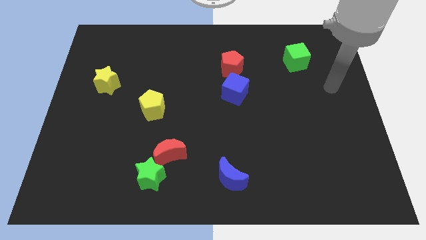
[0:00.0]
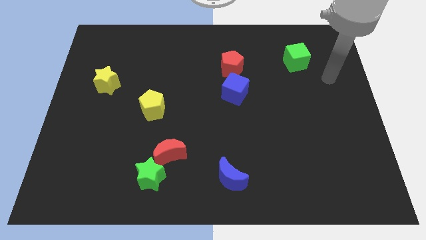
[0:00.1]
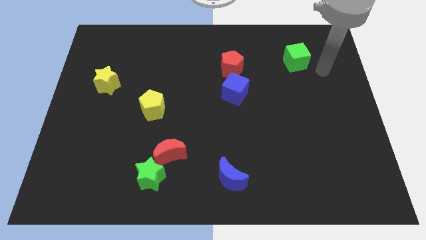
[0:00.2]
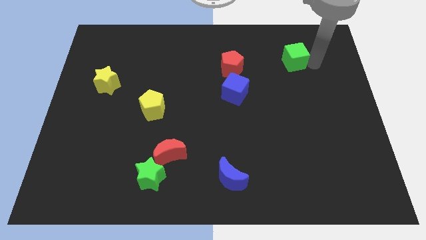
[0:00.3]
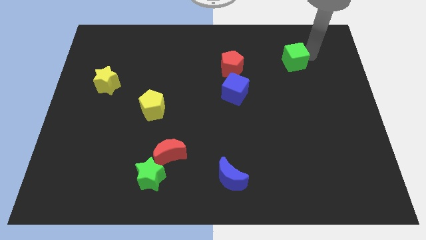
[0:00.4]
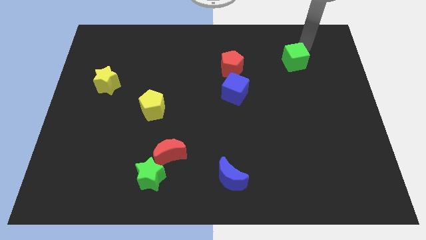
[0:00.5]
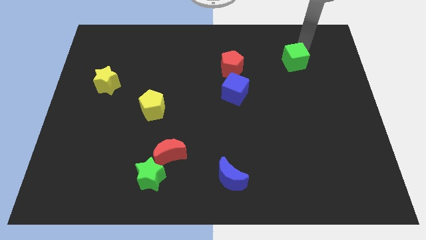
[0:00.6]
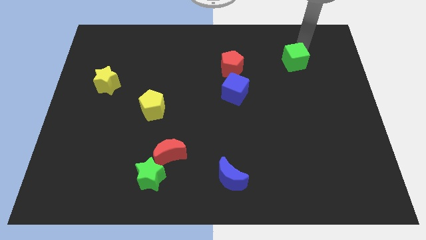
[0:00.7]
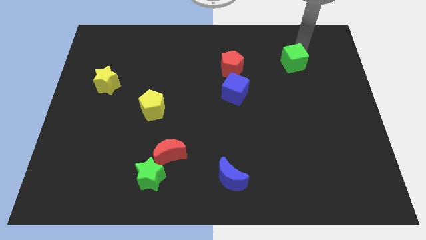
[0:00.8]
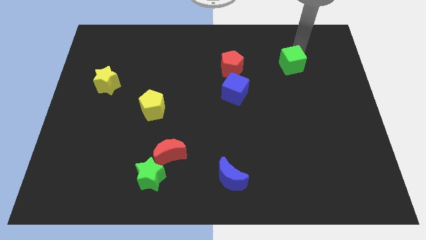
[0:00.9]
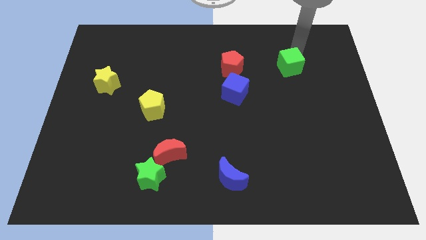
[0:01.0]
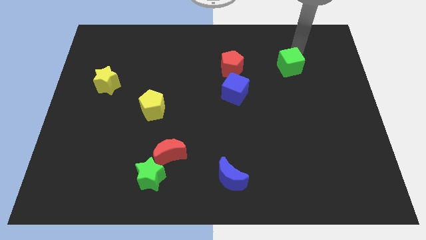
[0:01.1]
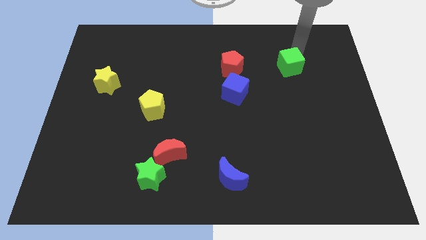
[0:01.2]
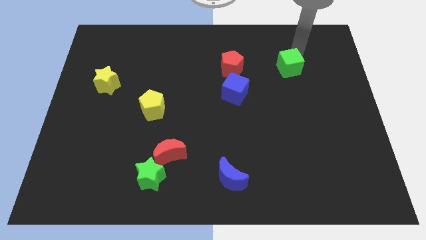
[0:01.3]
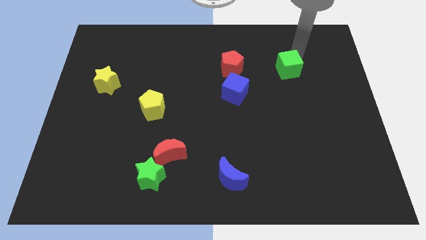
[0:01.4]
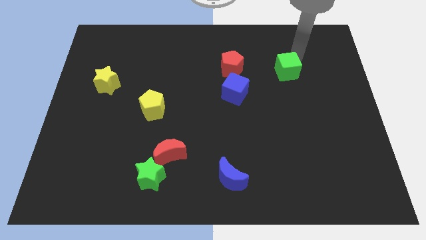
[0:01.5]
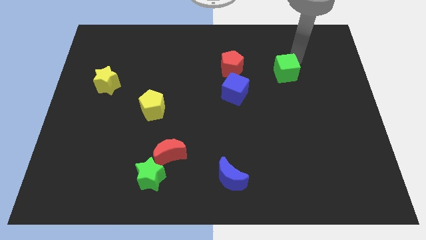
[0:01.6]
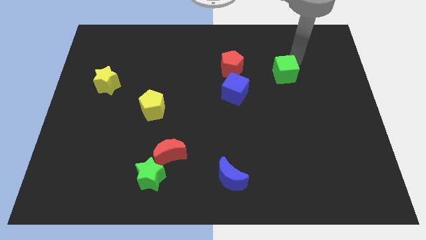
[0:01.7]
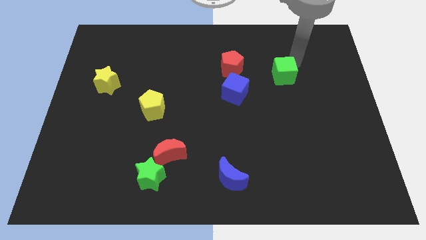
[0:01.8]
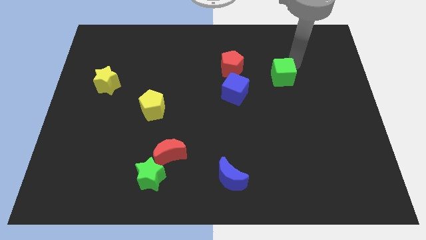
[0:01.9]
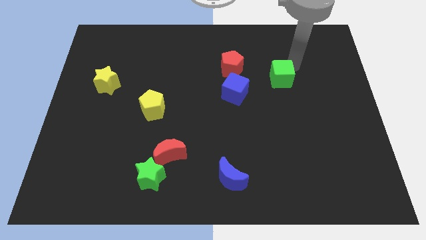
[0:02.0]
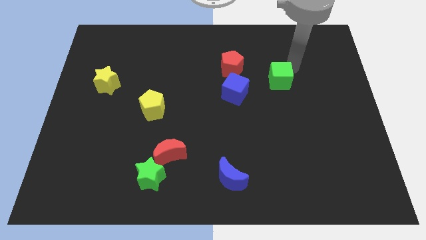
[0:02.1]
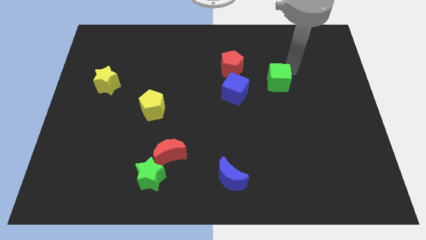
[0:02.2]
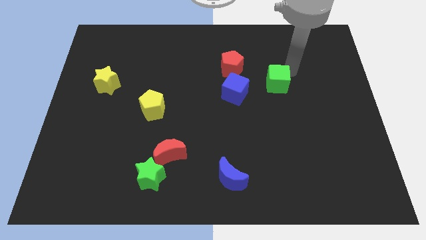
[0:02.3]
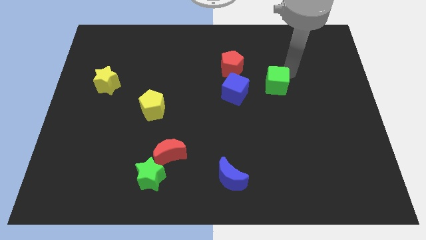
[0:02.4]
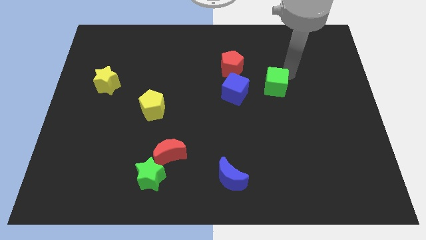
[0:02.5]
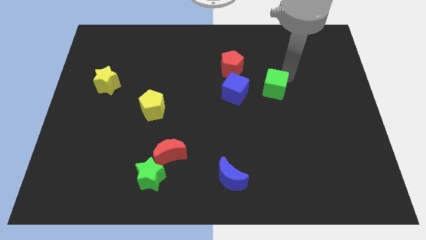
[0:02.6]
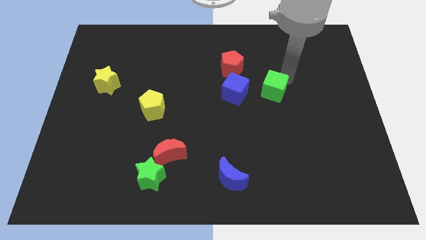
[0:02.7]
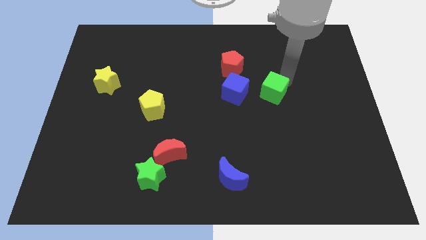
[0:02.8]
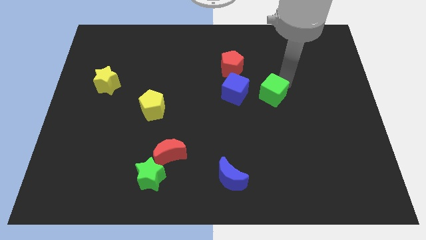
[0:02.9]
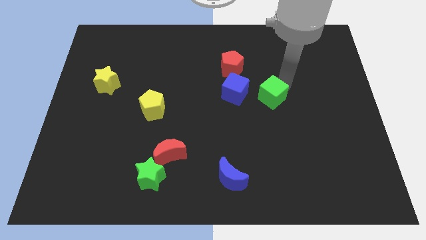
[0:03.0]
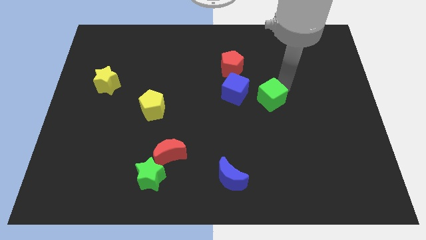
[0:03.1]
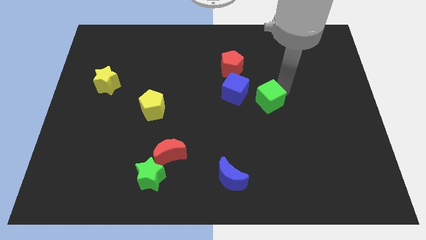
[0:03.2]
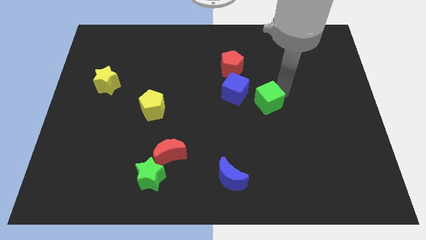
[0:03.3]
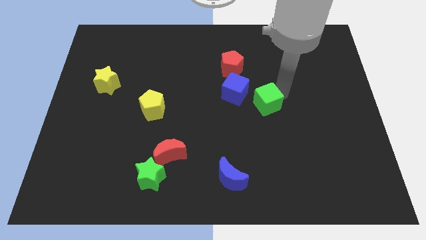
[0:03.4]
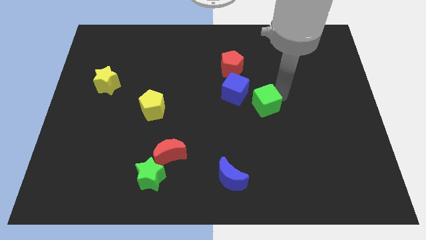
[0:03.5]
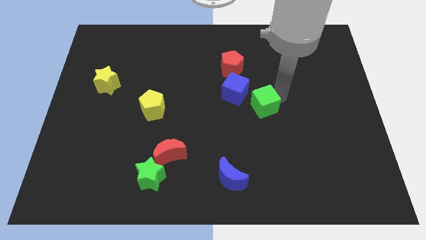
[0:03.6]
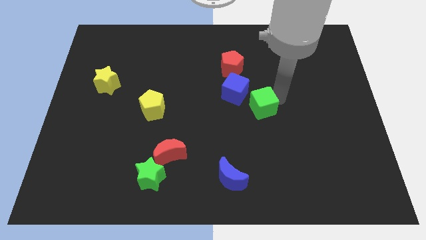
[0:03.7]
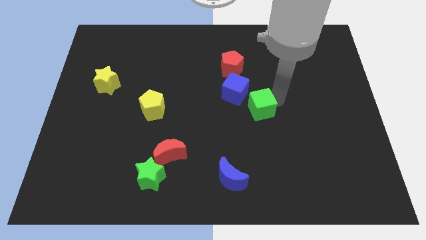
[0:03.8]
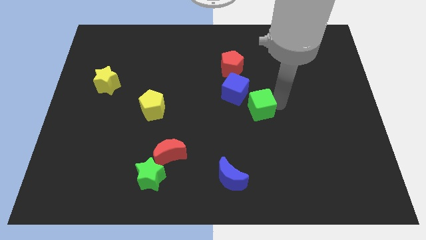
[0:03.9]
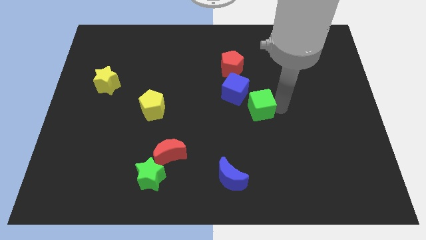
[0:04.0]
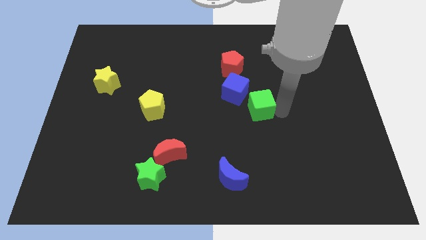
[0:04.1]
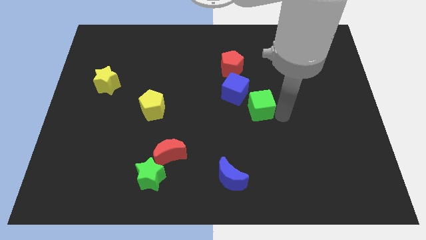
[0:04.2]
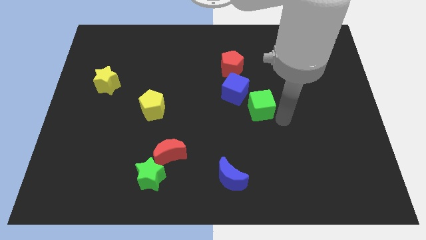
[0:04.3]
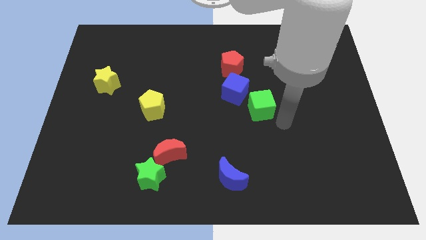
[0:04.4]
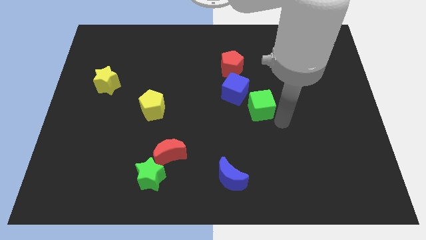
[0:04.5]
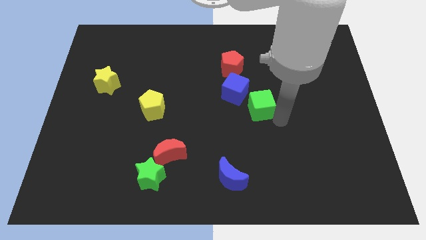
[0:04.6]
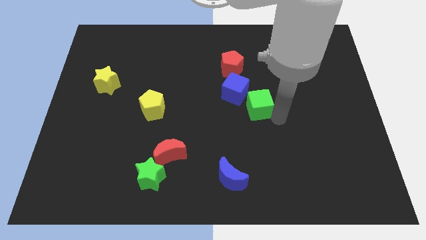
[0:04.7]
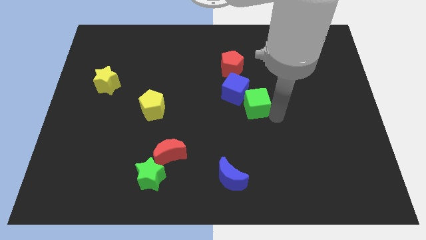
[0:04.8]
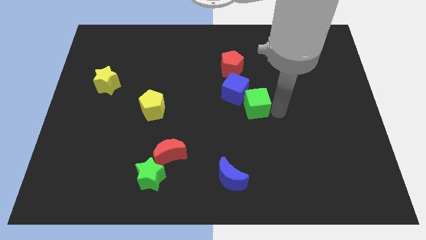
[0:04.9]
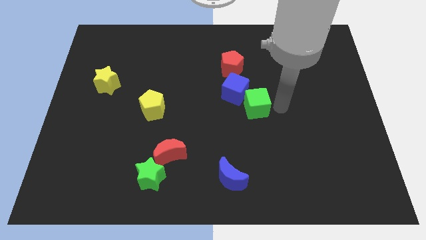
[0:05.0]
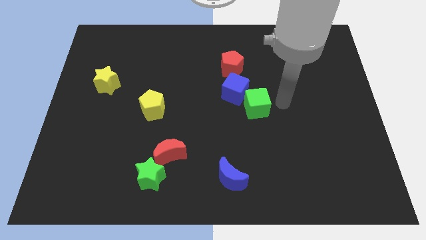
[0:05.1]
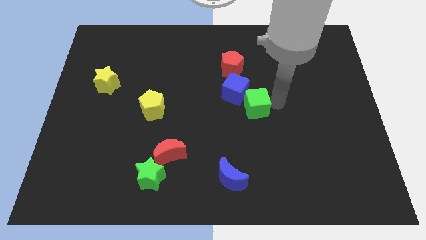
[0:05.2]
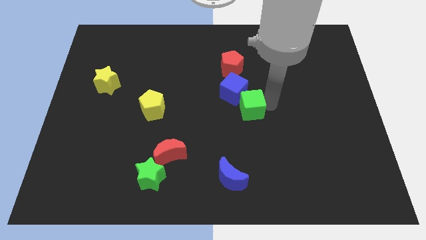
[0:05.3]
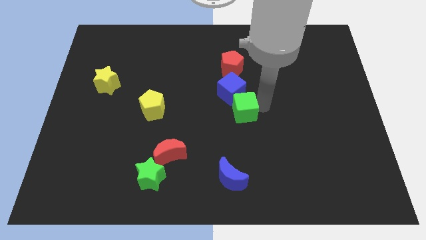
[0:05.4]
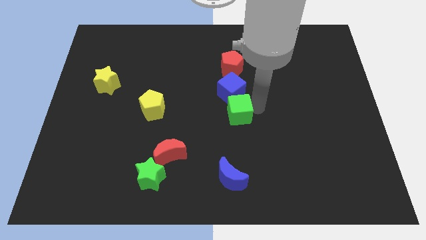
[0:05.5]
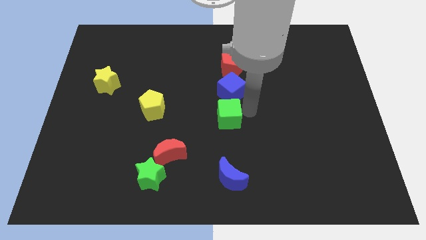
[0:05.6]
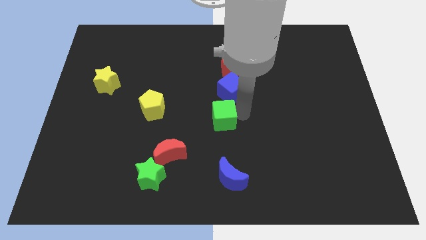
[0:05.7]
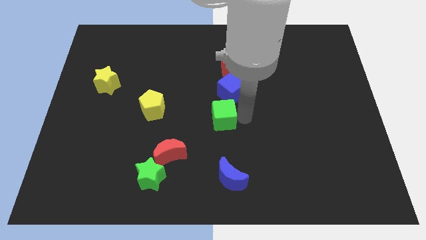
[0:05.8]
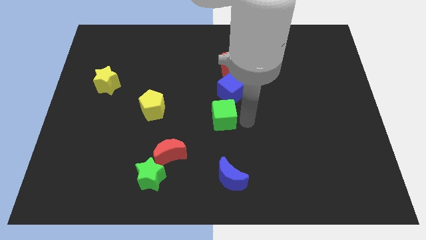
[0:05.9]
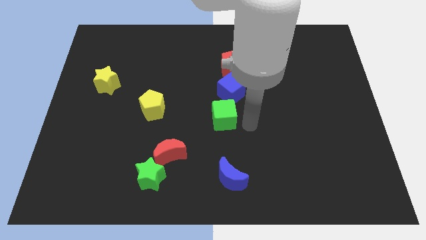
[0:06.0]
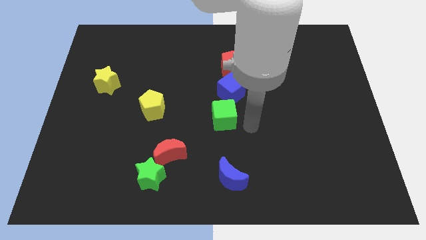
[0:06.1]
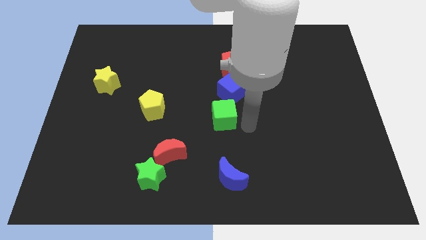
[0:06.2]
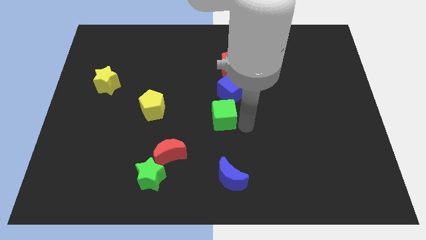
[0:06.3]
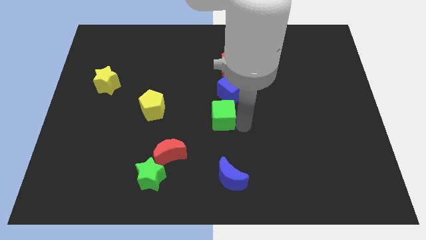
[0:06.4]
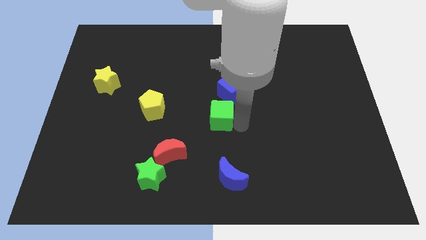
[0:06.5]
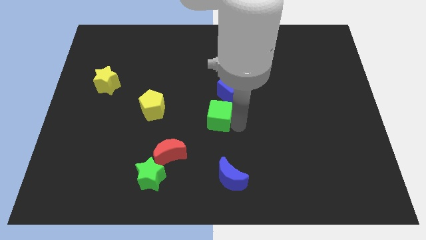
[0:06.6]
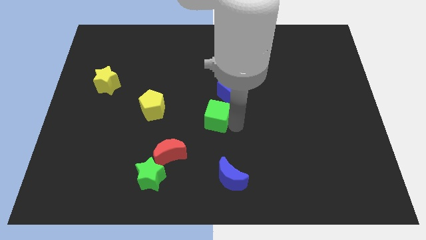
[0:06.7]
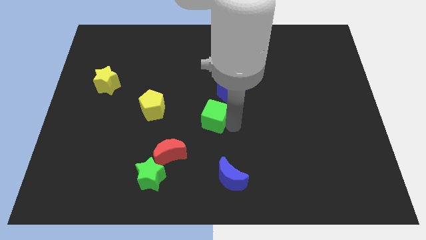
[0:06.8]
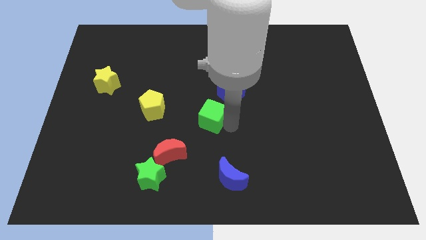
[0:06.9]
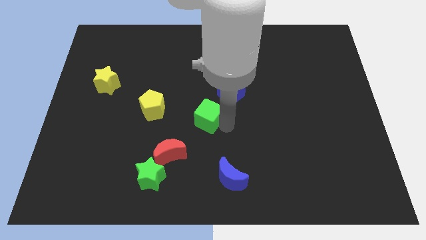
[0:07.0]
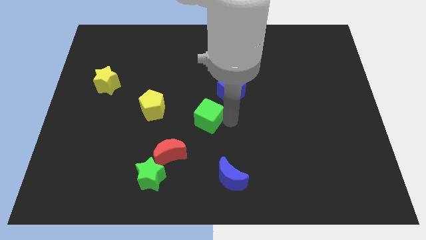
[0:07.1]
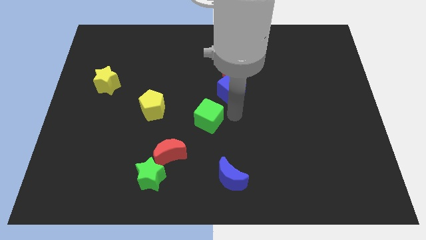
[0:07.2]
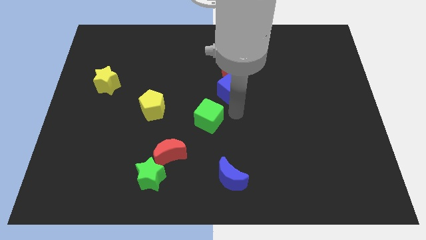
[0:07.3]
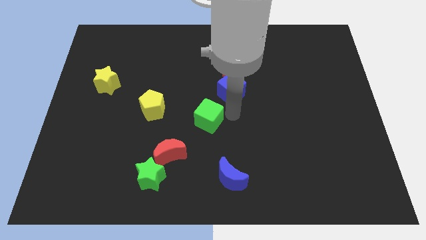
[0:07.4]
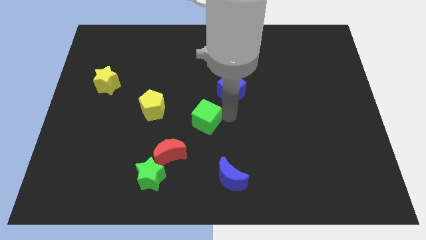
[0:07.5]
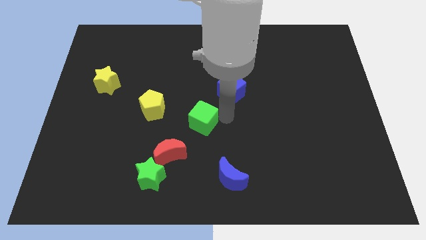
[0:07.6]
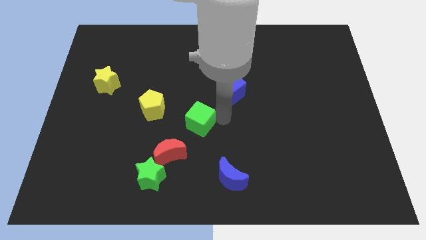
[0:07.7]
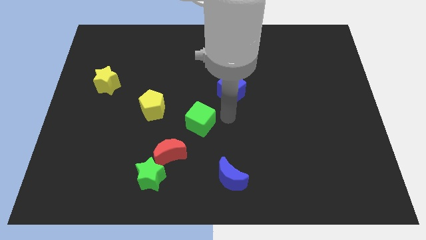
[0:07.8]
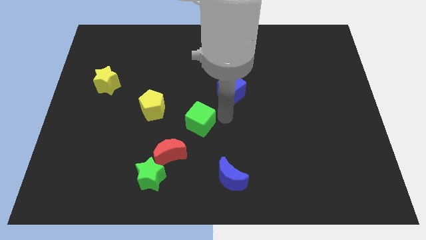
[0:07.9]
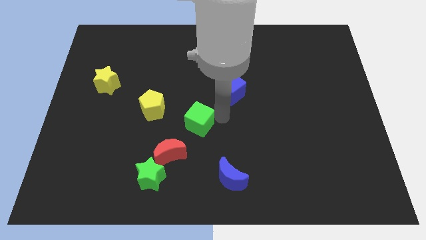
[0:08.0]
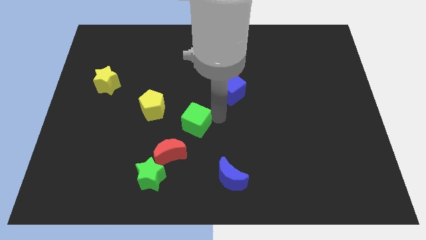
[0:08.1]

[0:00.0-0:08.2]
slide the green cube to the bottom right side of the yellow pentagon
